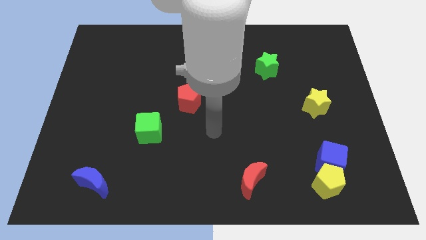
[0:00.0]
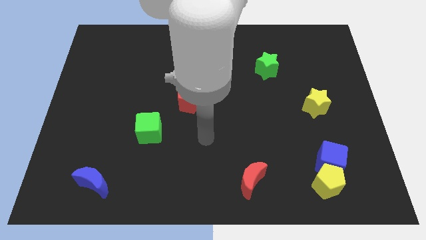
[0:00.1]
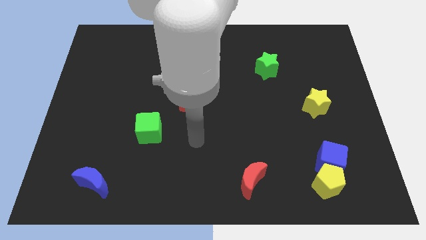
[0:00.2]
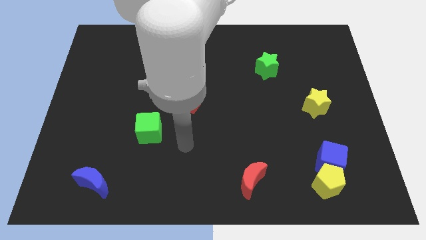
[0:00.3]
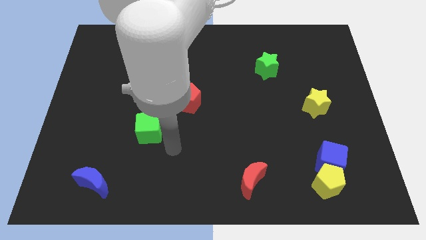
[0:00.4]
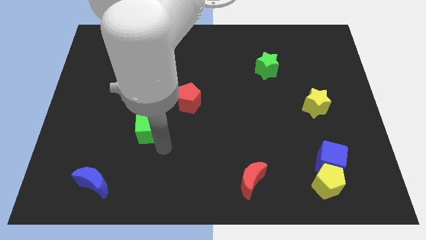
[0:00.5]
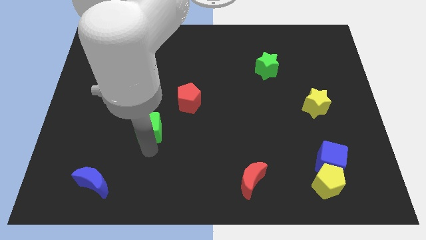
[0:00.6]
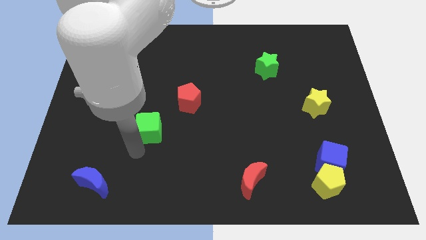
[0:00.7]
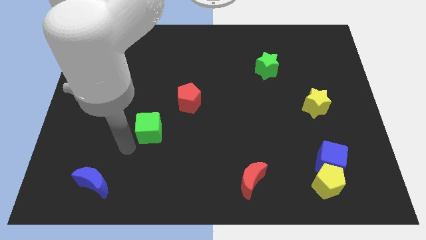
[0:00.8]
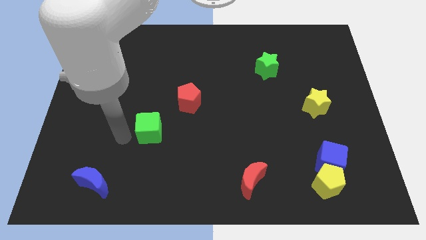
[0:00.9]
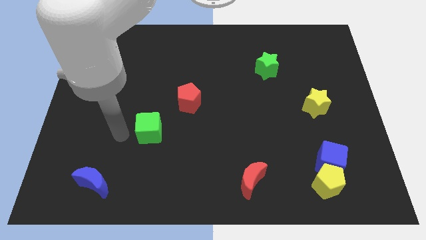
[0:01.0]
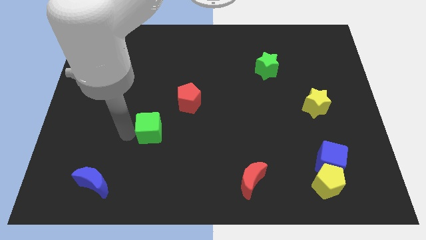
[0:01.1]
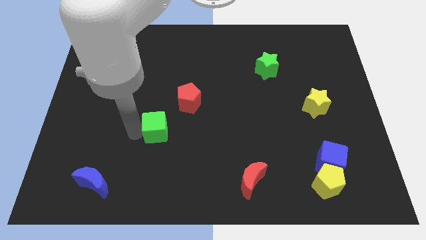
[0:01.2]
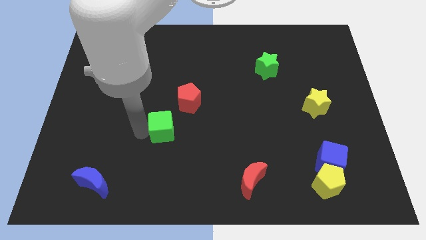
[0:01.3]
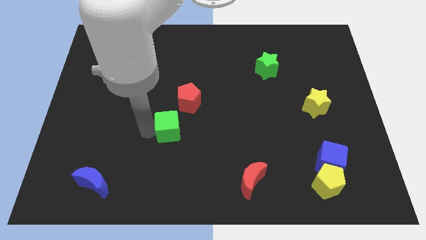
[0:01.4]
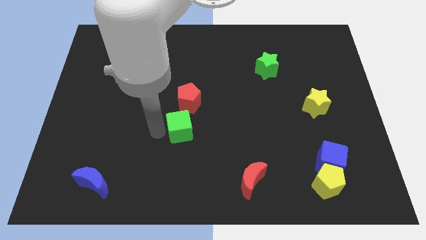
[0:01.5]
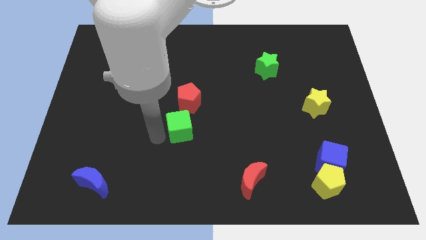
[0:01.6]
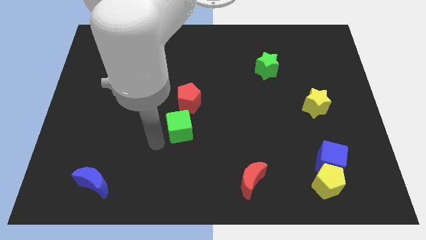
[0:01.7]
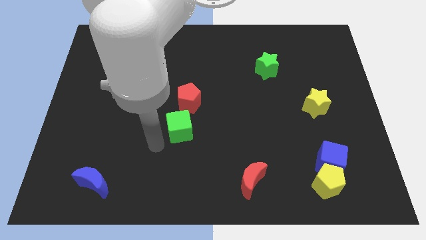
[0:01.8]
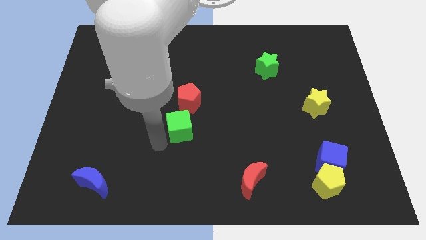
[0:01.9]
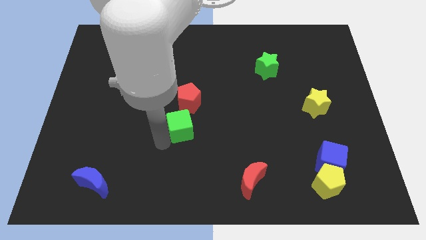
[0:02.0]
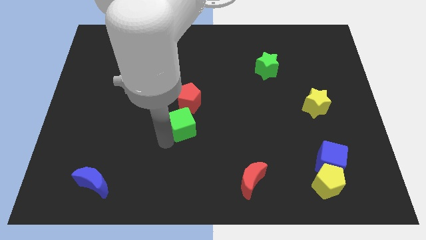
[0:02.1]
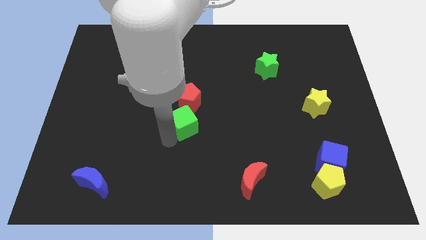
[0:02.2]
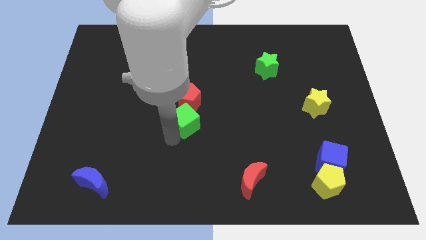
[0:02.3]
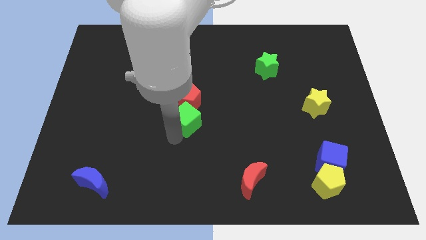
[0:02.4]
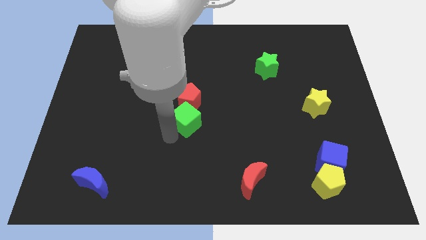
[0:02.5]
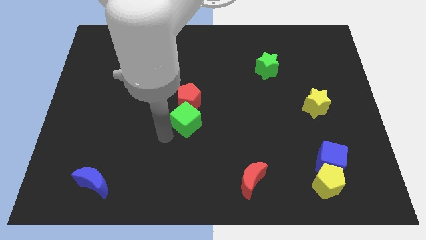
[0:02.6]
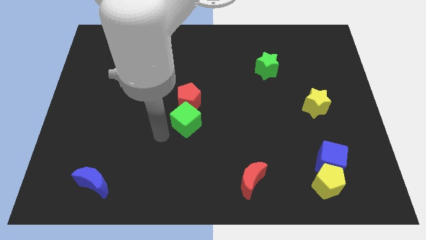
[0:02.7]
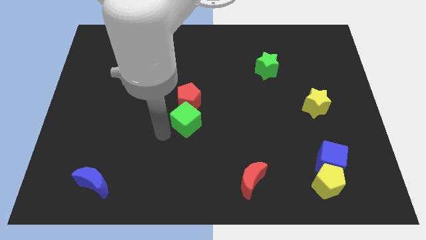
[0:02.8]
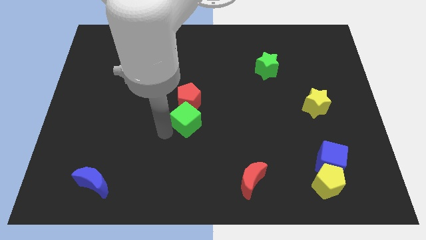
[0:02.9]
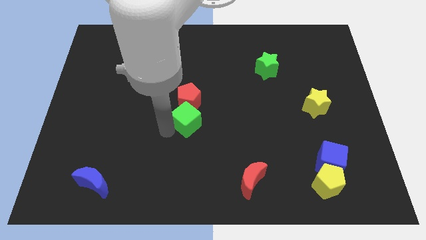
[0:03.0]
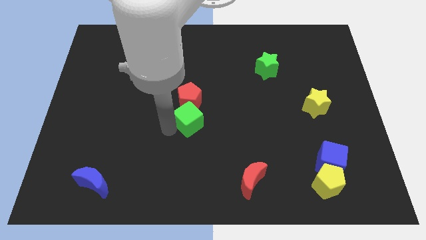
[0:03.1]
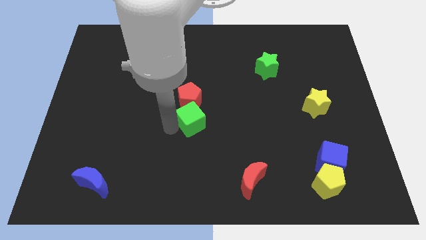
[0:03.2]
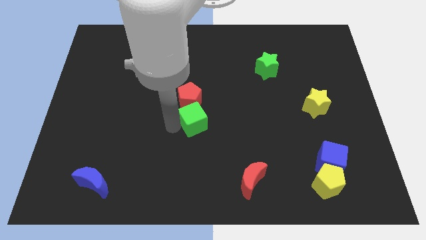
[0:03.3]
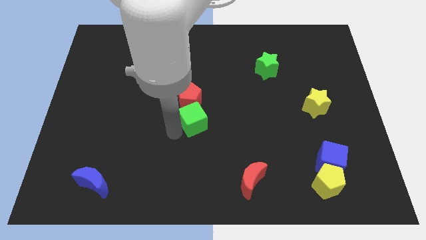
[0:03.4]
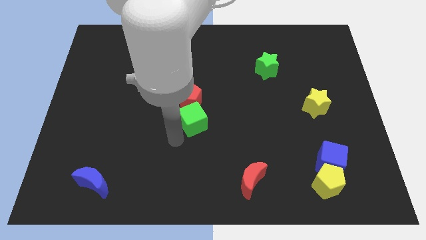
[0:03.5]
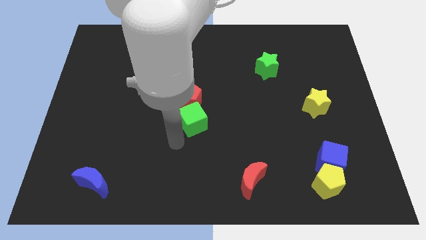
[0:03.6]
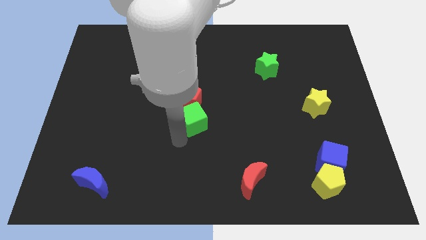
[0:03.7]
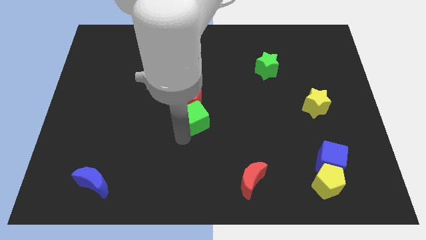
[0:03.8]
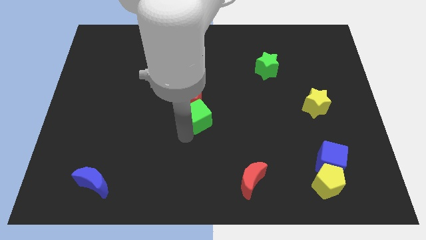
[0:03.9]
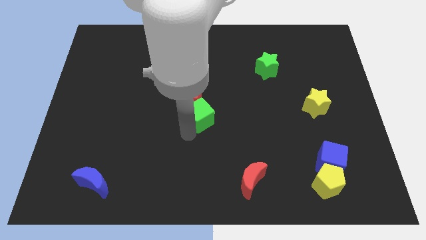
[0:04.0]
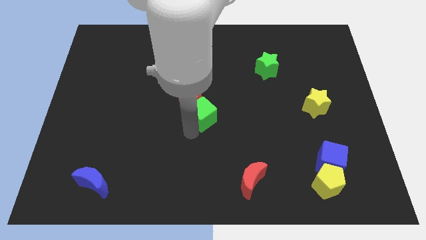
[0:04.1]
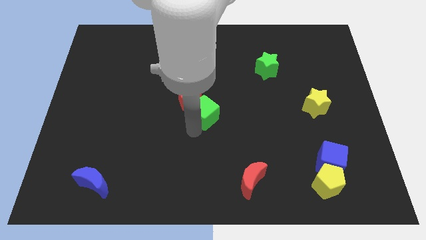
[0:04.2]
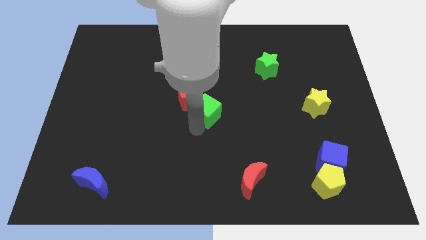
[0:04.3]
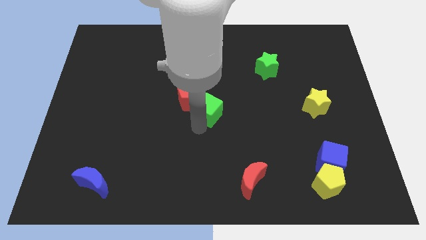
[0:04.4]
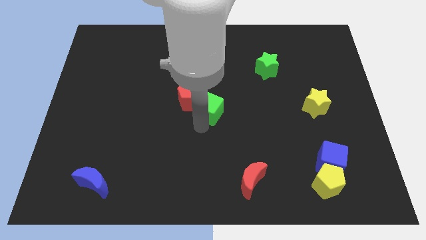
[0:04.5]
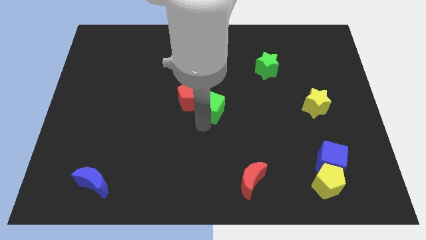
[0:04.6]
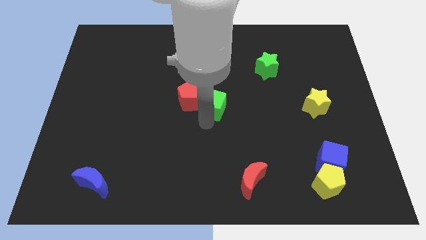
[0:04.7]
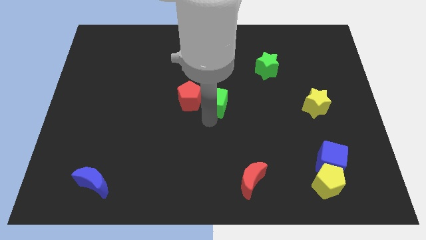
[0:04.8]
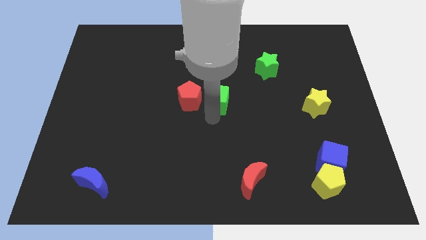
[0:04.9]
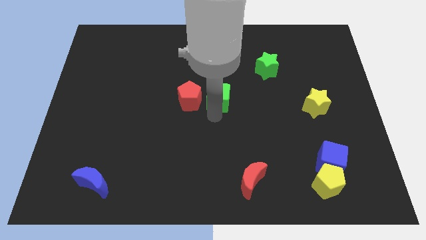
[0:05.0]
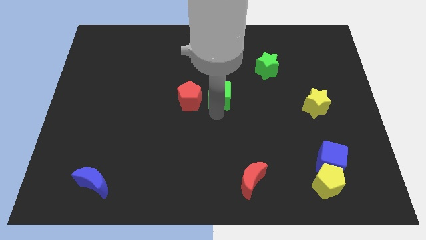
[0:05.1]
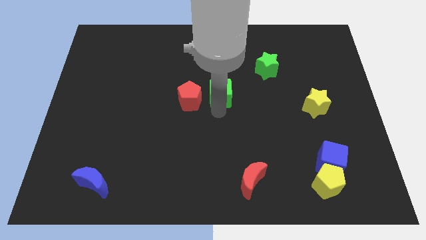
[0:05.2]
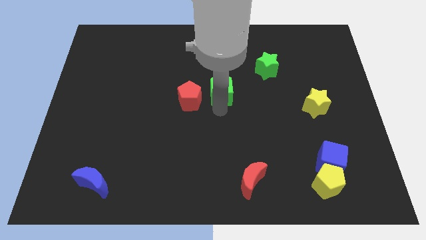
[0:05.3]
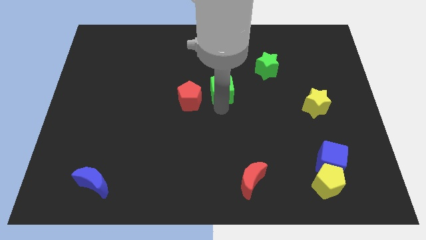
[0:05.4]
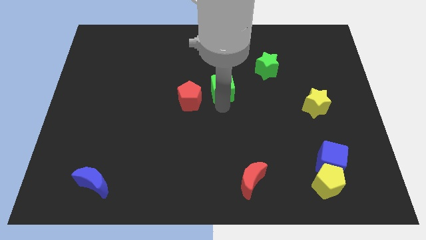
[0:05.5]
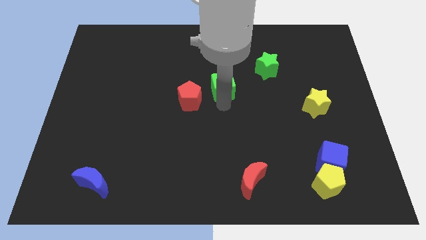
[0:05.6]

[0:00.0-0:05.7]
move the green cube up and right diagonally

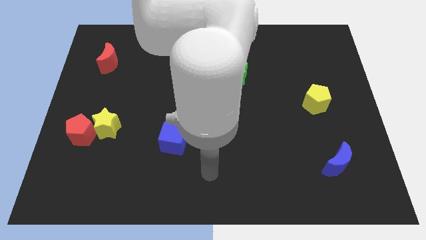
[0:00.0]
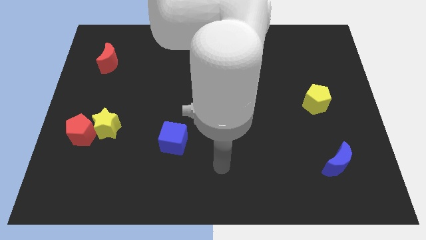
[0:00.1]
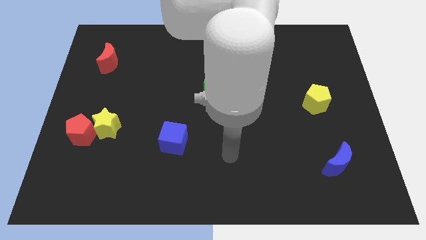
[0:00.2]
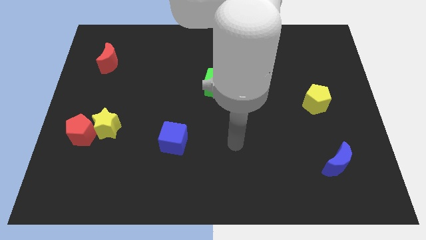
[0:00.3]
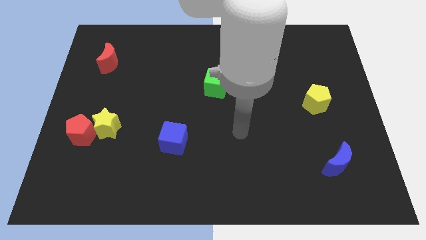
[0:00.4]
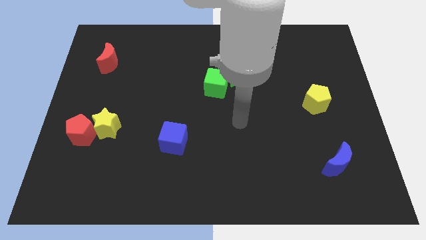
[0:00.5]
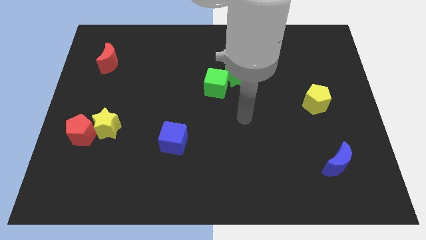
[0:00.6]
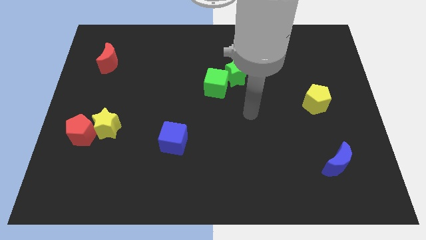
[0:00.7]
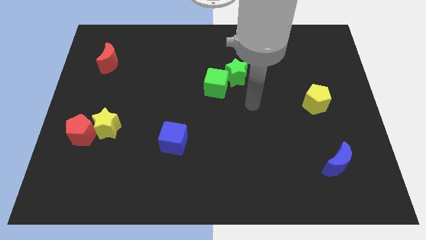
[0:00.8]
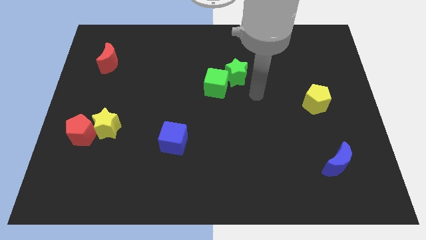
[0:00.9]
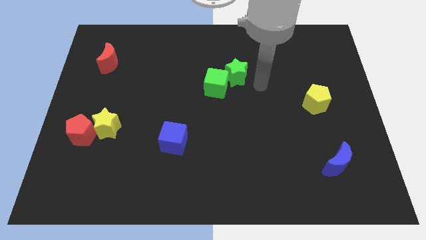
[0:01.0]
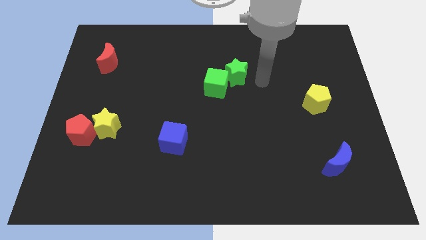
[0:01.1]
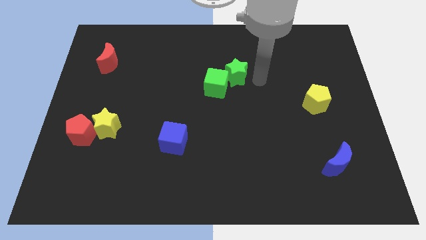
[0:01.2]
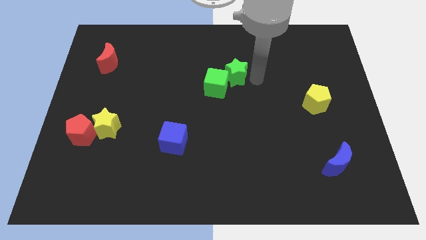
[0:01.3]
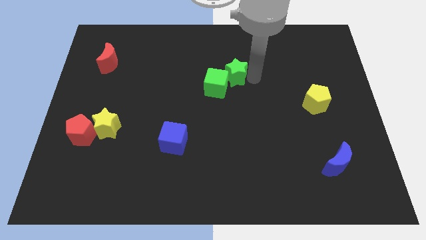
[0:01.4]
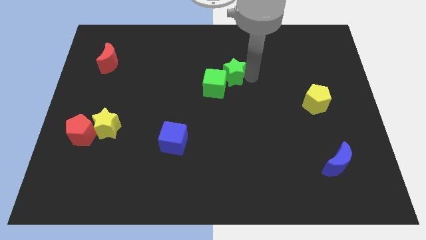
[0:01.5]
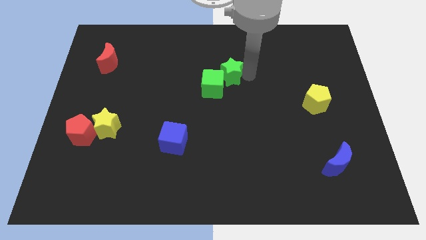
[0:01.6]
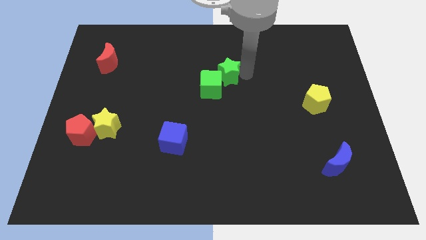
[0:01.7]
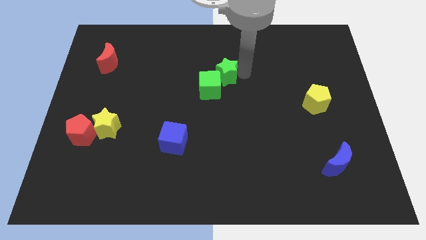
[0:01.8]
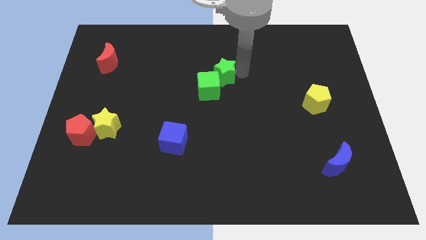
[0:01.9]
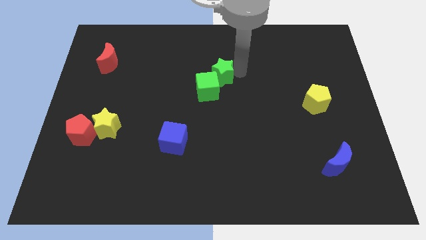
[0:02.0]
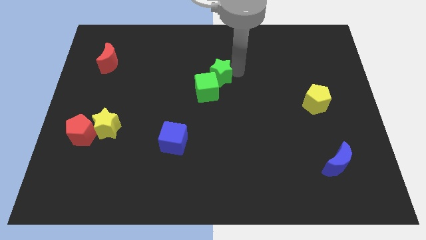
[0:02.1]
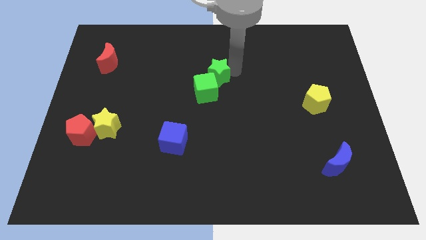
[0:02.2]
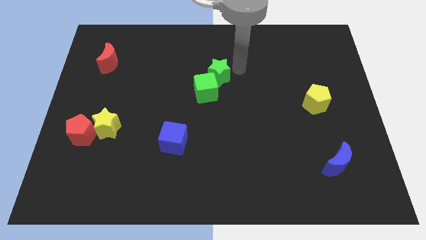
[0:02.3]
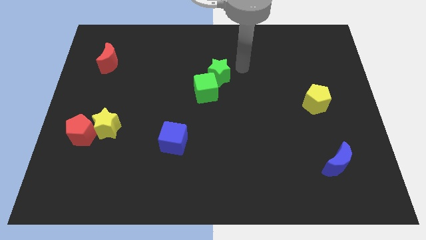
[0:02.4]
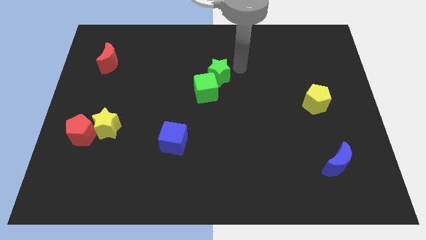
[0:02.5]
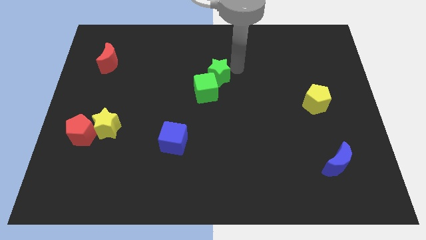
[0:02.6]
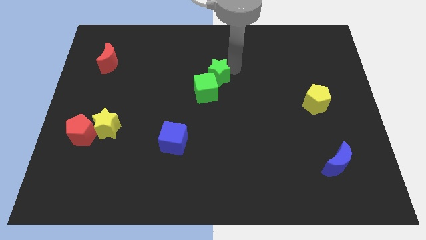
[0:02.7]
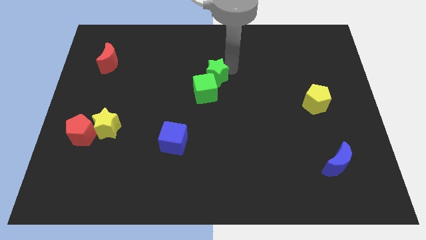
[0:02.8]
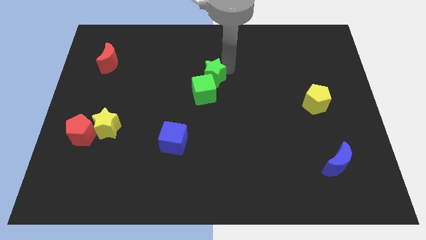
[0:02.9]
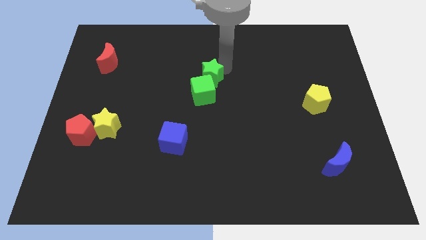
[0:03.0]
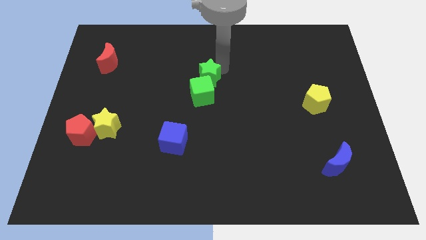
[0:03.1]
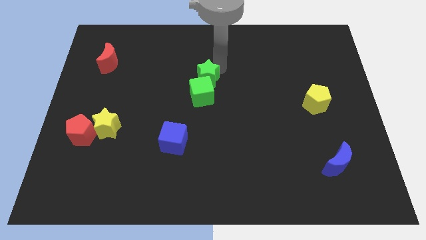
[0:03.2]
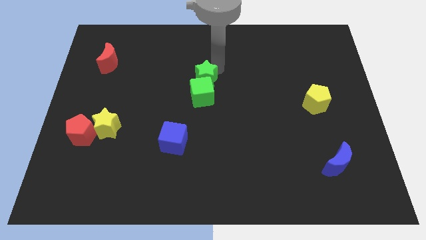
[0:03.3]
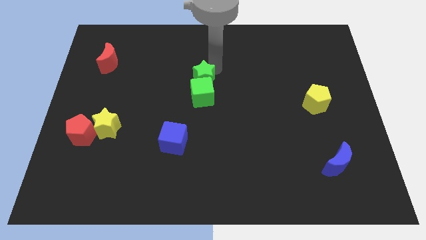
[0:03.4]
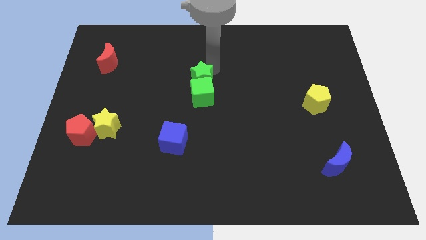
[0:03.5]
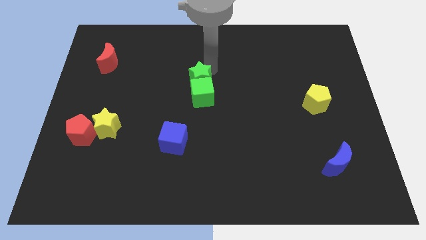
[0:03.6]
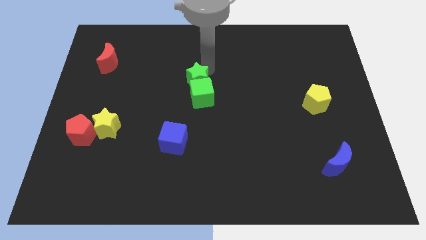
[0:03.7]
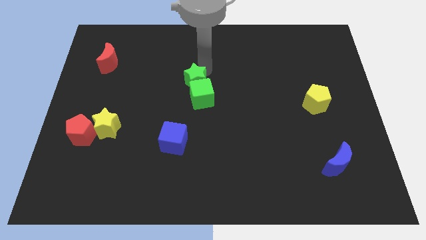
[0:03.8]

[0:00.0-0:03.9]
slightly slide the green star downwards and to the left diagonally
